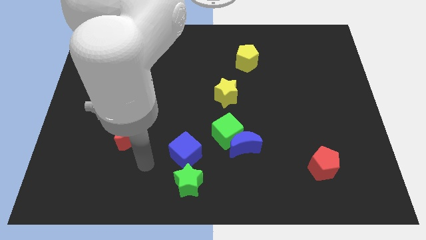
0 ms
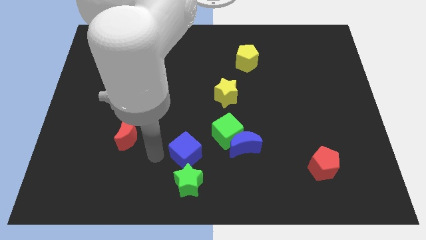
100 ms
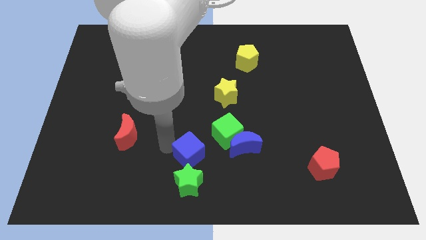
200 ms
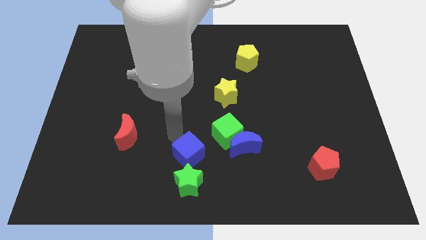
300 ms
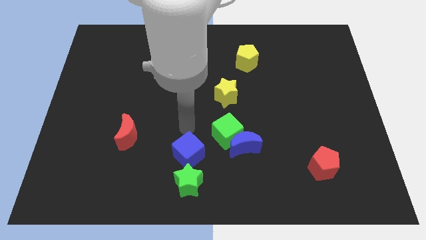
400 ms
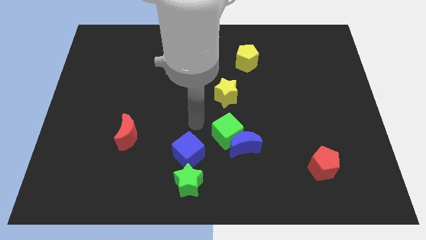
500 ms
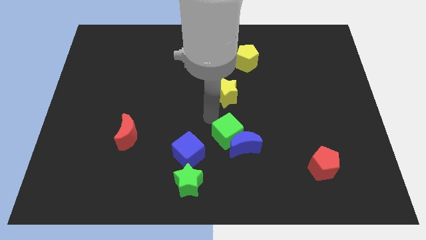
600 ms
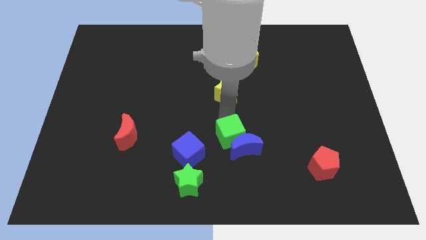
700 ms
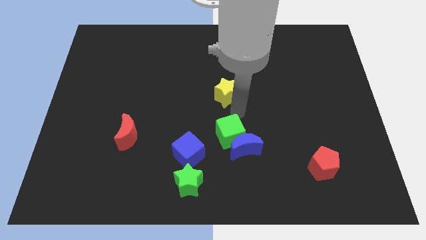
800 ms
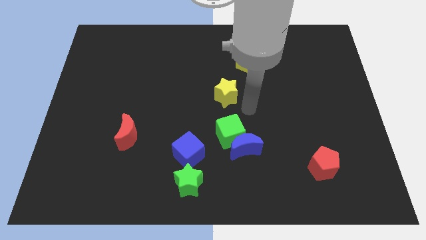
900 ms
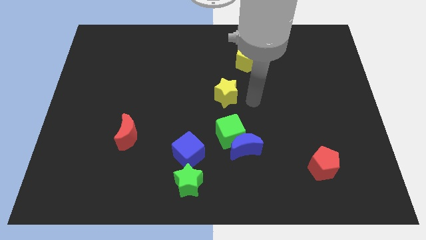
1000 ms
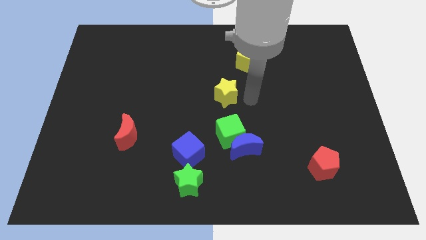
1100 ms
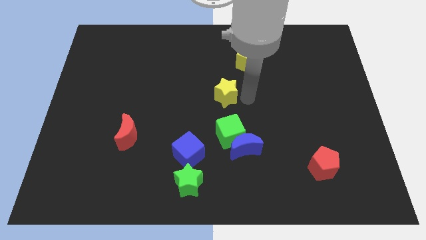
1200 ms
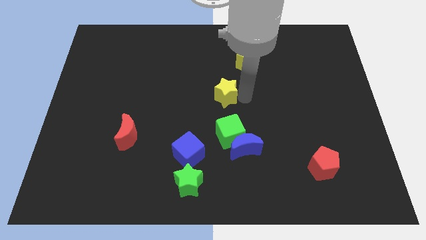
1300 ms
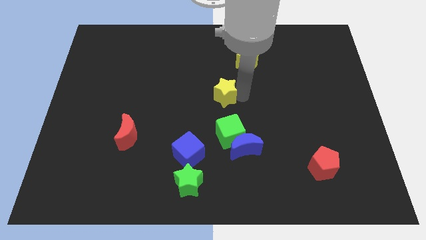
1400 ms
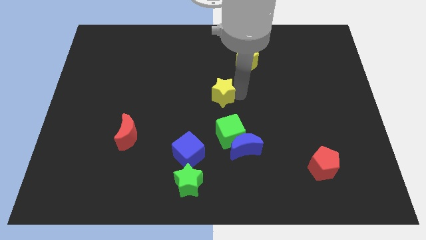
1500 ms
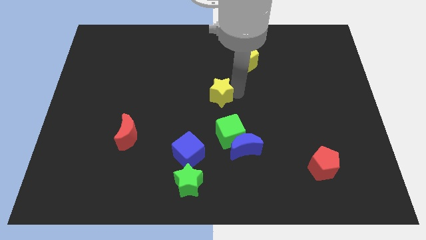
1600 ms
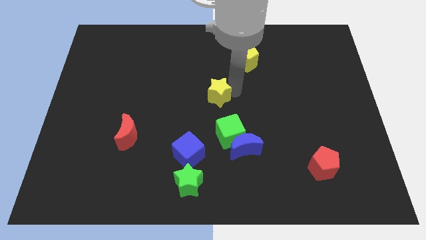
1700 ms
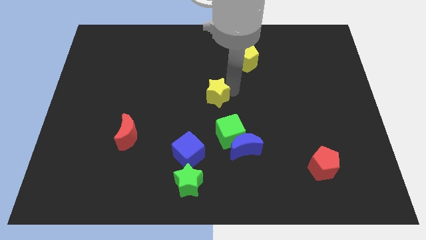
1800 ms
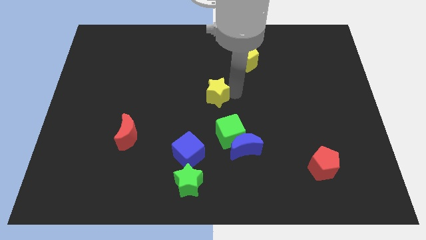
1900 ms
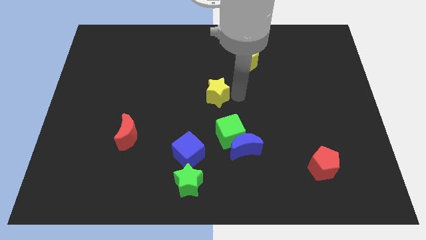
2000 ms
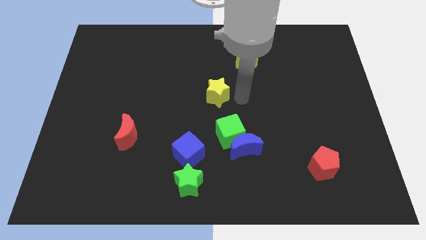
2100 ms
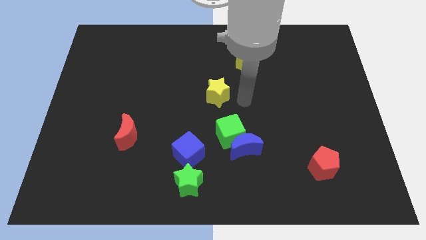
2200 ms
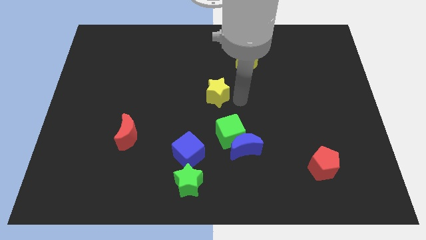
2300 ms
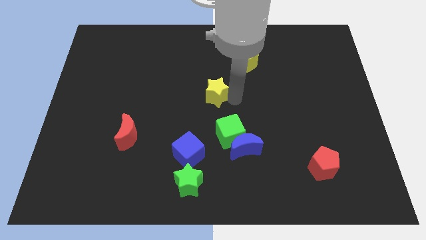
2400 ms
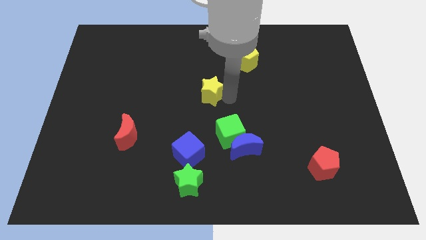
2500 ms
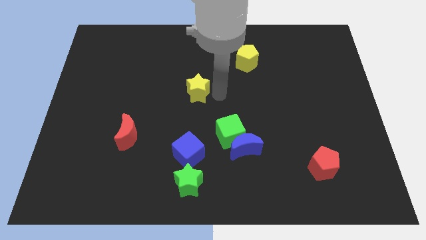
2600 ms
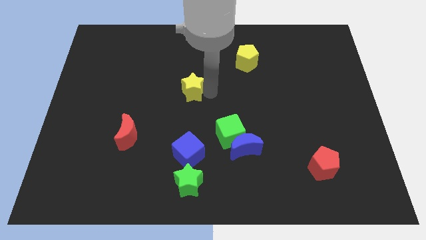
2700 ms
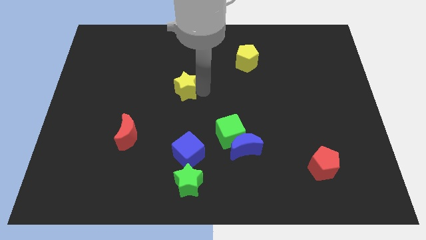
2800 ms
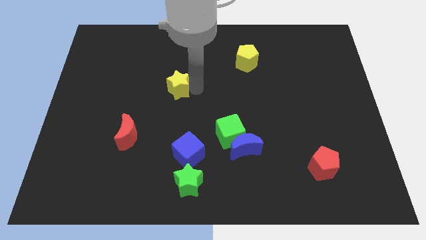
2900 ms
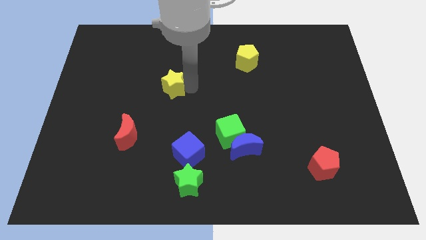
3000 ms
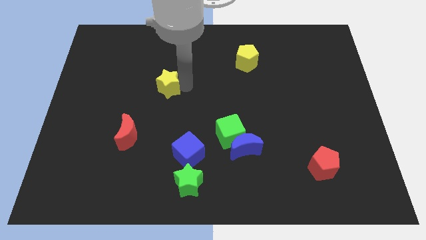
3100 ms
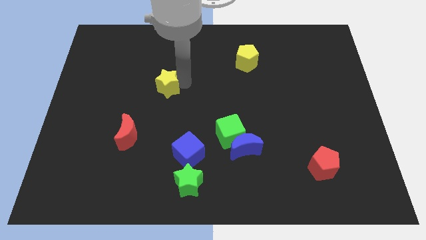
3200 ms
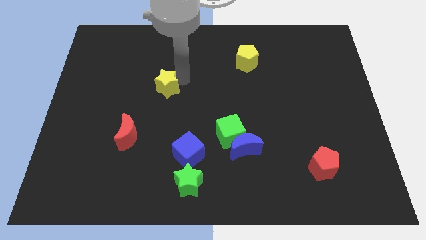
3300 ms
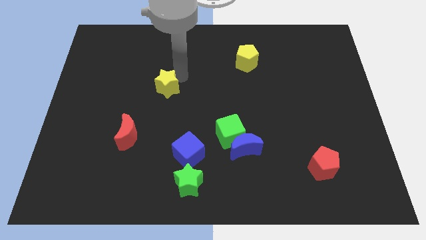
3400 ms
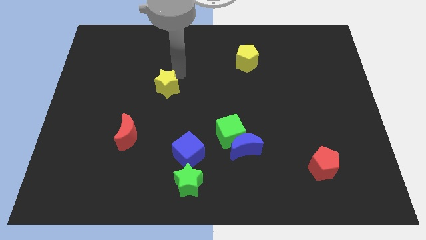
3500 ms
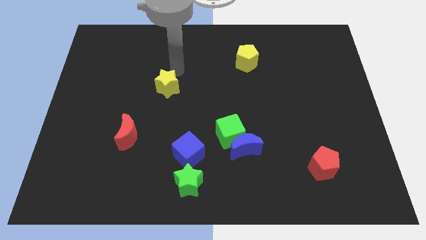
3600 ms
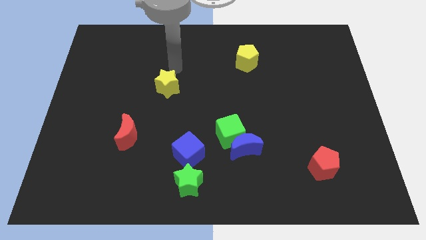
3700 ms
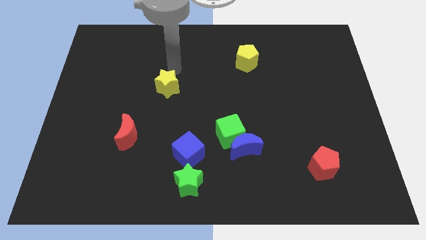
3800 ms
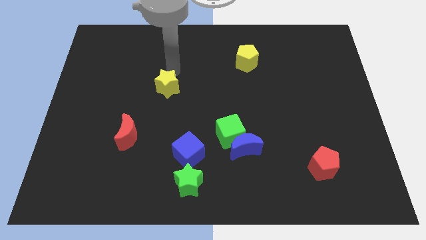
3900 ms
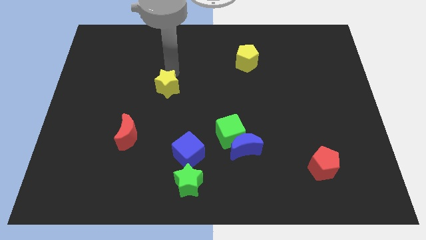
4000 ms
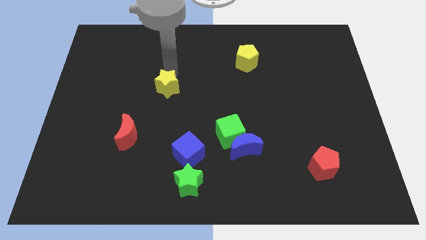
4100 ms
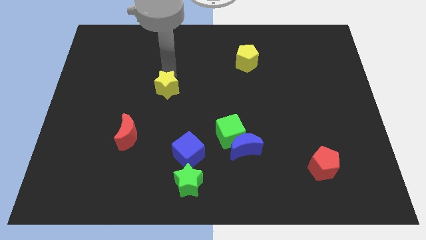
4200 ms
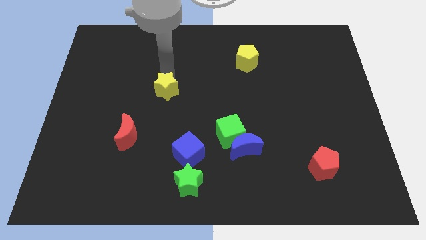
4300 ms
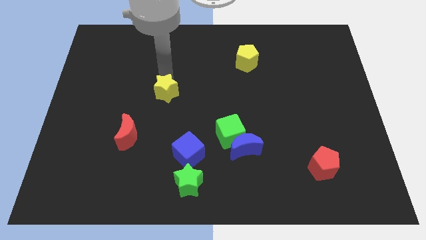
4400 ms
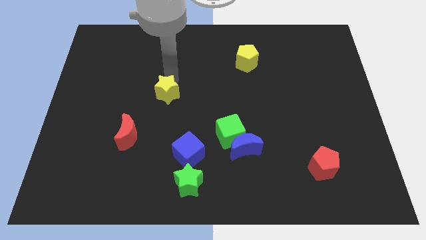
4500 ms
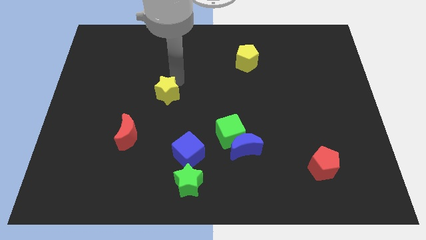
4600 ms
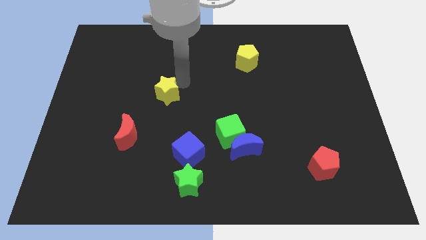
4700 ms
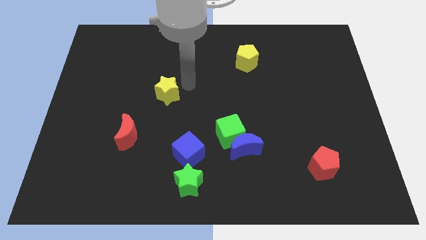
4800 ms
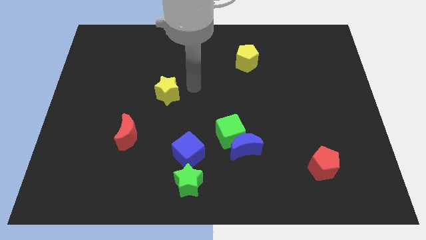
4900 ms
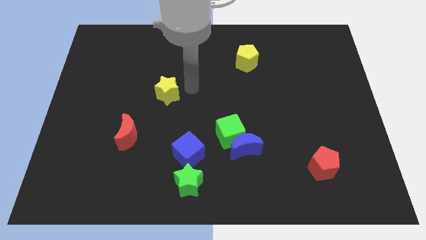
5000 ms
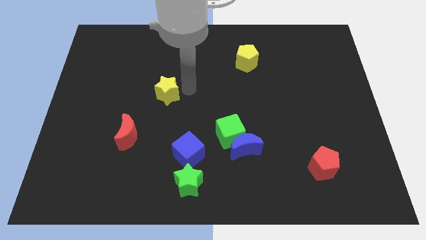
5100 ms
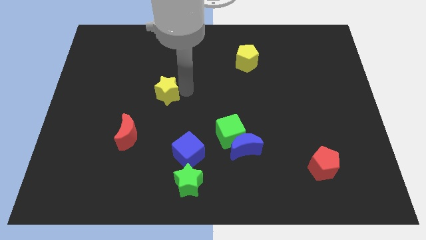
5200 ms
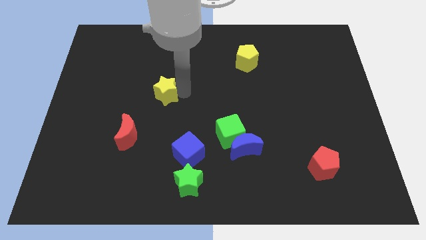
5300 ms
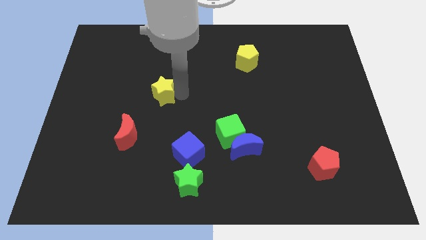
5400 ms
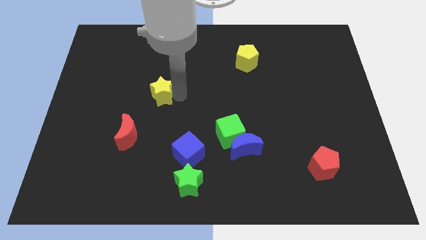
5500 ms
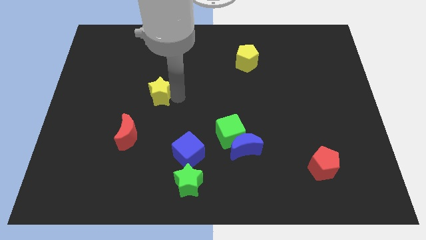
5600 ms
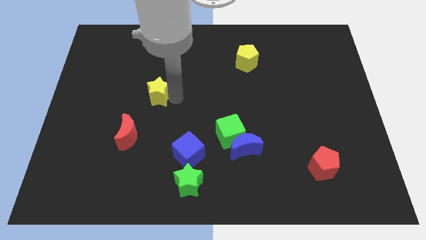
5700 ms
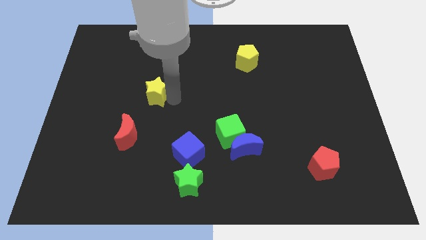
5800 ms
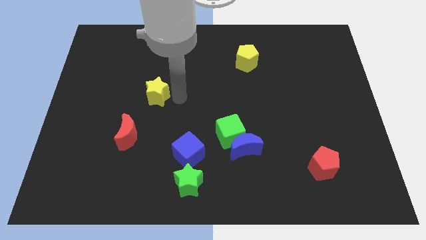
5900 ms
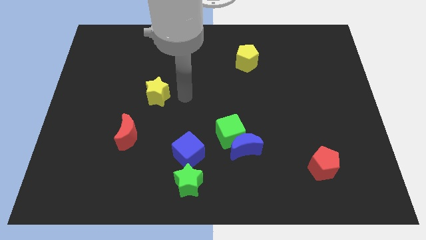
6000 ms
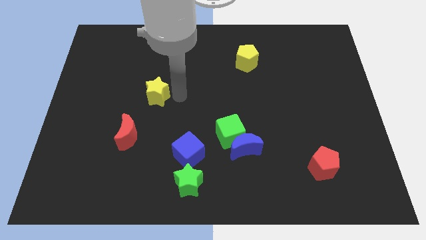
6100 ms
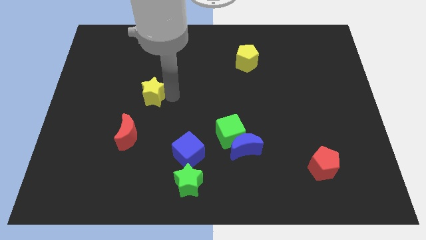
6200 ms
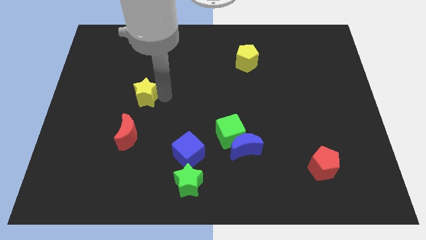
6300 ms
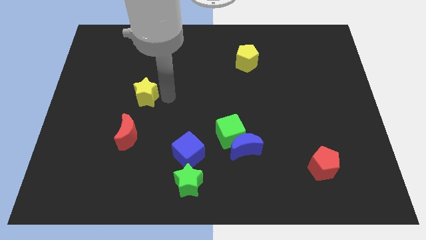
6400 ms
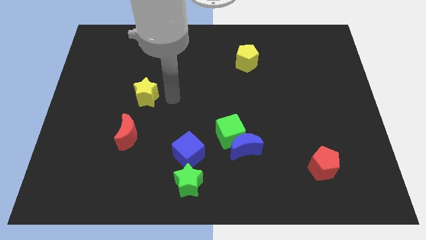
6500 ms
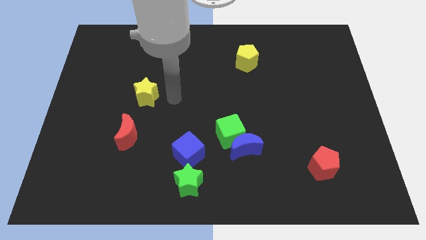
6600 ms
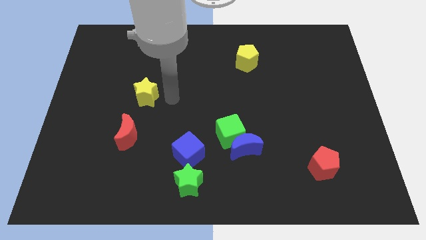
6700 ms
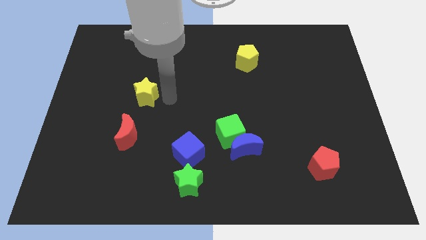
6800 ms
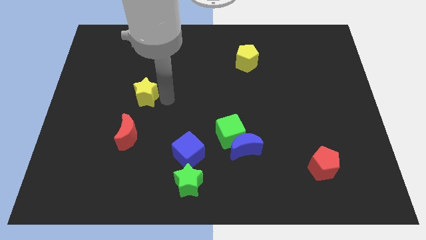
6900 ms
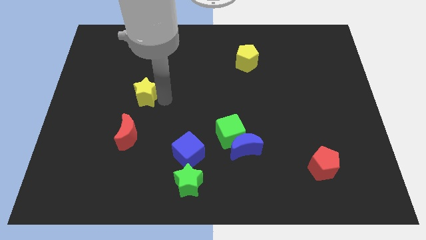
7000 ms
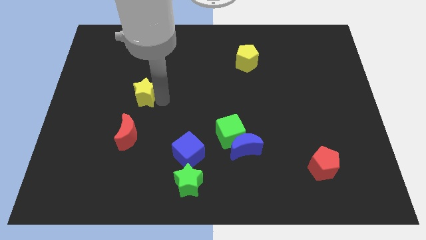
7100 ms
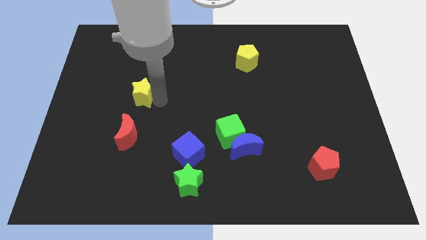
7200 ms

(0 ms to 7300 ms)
slide the yellow star to the left

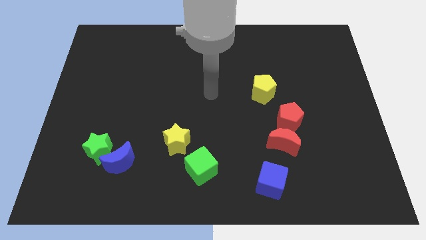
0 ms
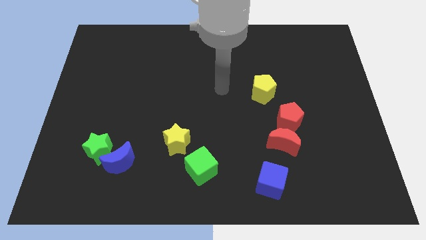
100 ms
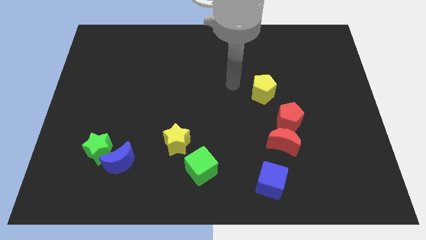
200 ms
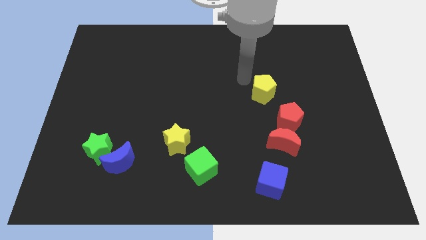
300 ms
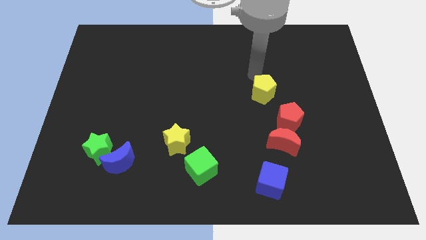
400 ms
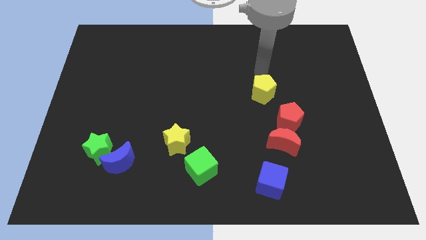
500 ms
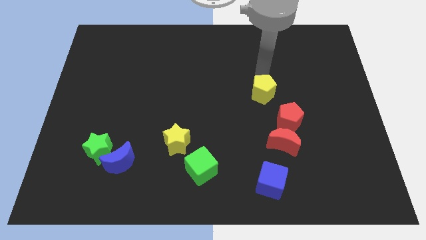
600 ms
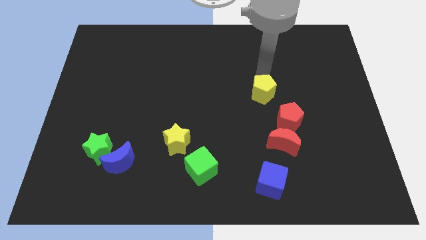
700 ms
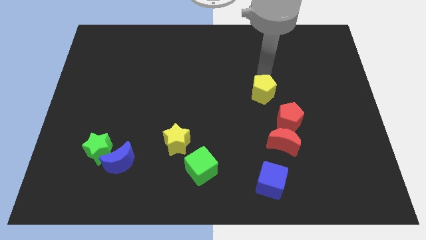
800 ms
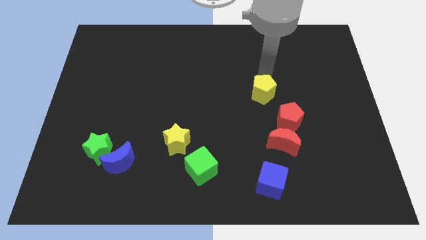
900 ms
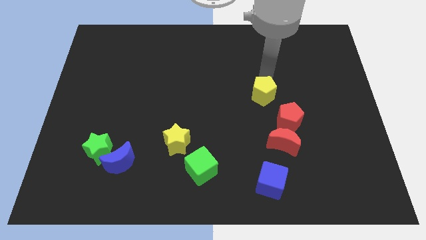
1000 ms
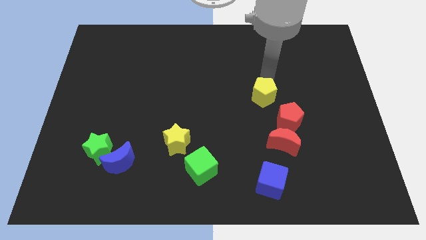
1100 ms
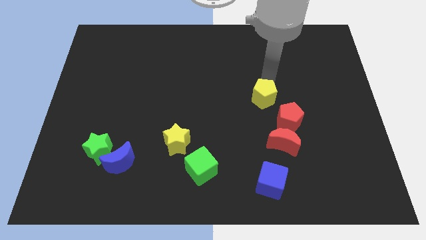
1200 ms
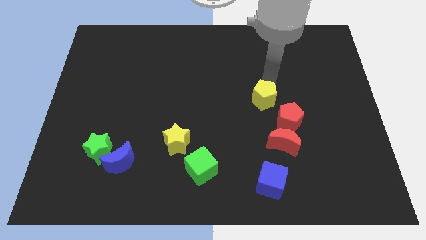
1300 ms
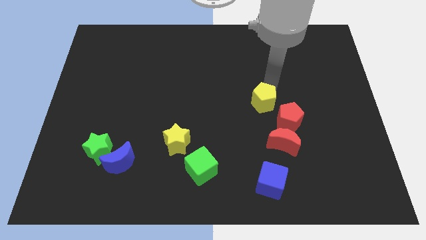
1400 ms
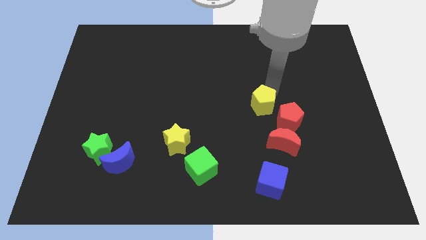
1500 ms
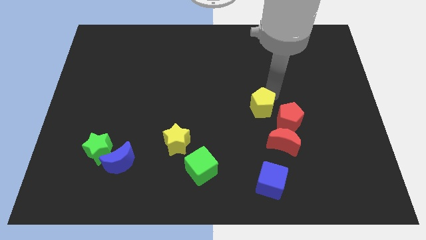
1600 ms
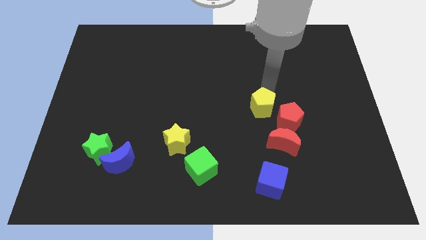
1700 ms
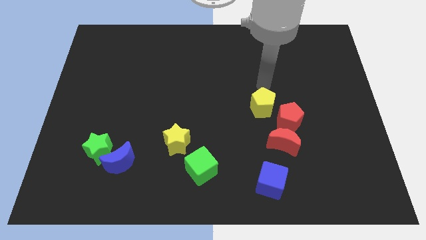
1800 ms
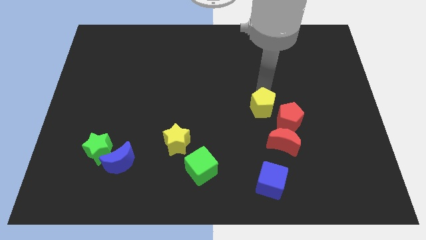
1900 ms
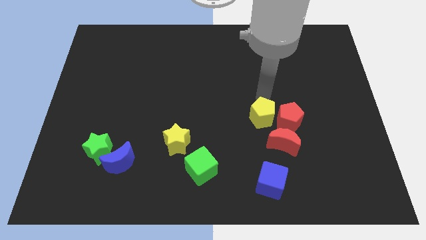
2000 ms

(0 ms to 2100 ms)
slightly move the yellow pentagon downwards
